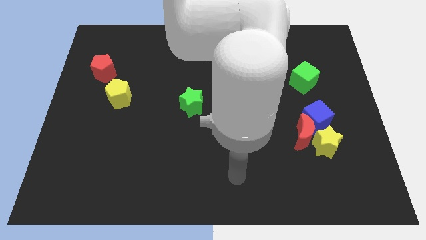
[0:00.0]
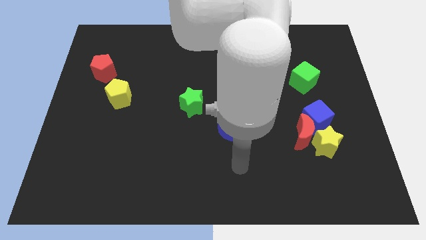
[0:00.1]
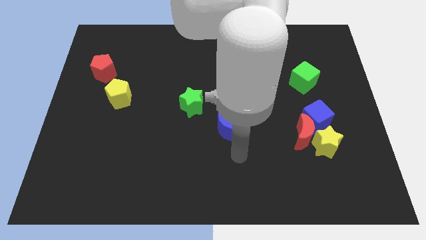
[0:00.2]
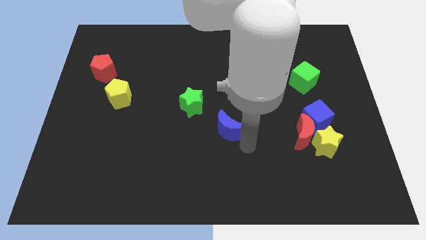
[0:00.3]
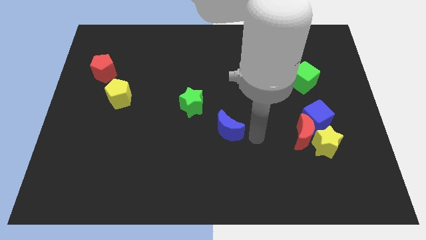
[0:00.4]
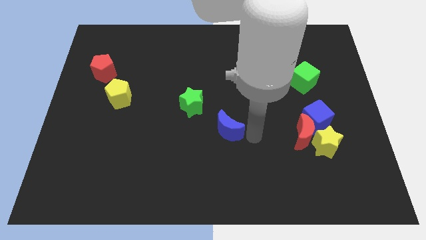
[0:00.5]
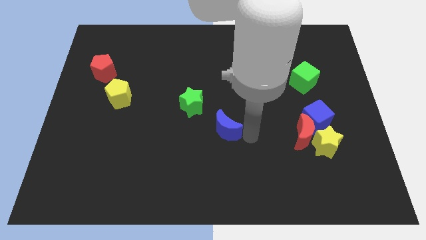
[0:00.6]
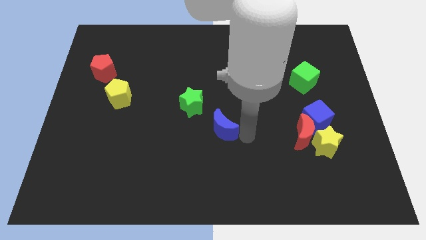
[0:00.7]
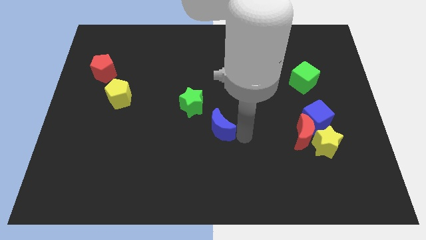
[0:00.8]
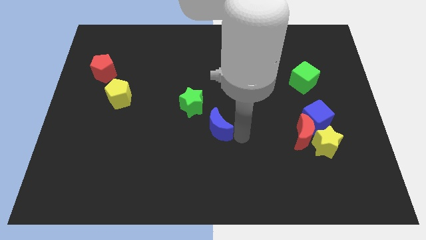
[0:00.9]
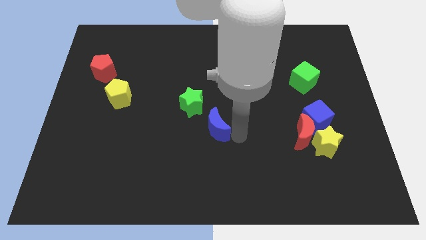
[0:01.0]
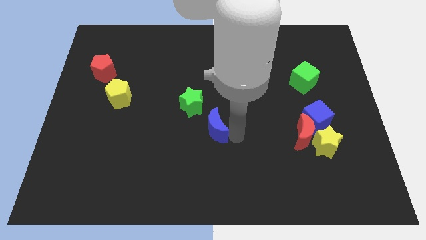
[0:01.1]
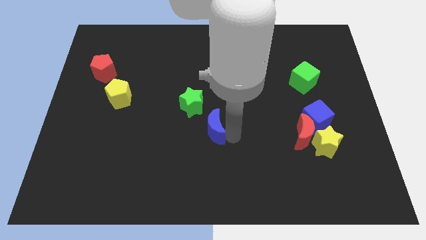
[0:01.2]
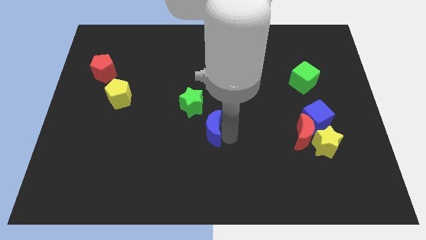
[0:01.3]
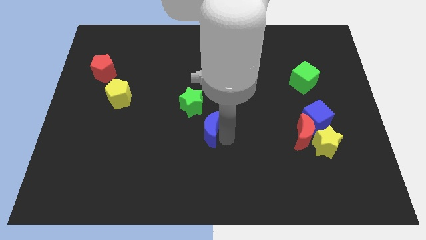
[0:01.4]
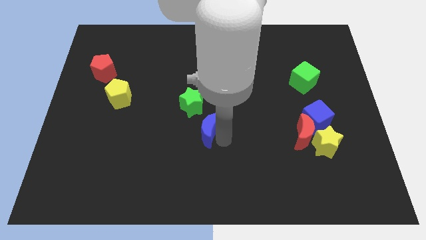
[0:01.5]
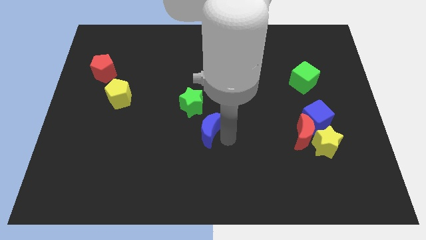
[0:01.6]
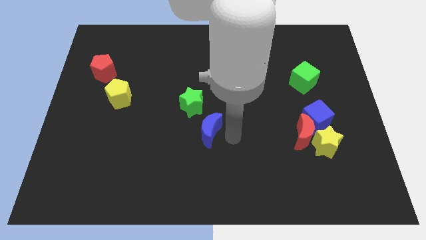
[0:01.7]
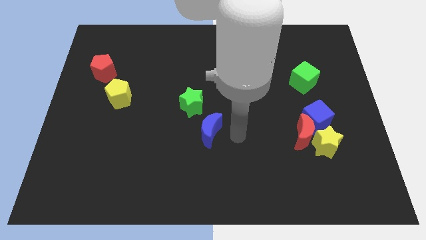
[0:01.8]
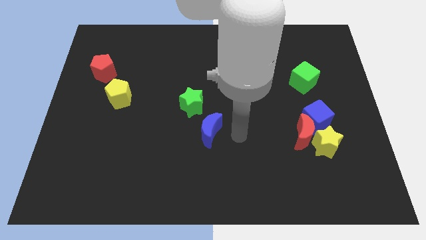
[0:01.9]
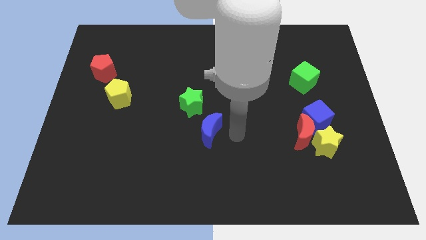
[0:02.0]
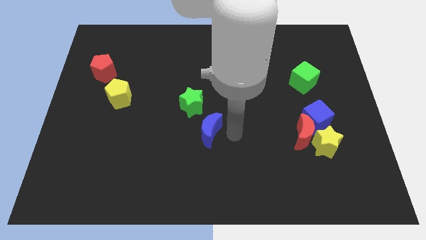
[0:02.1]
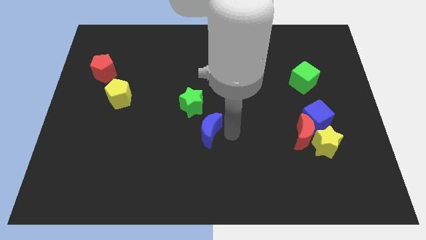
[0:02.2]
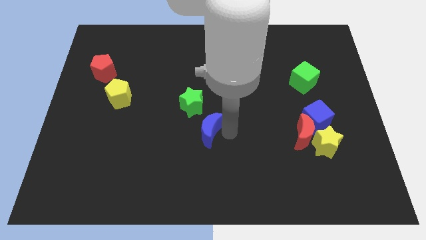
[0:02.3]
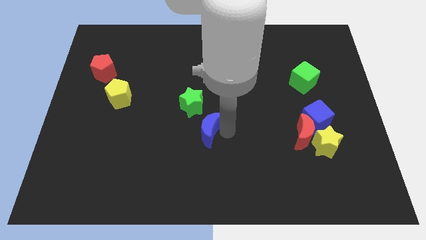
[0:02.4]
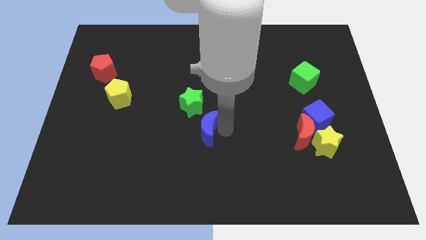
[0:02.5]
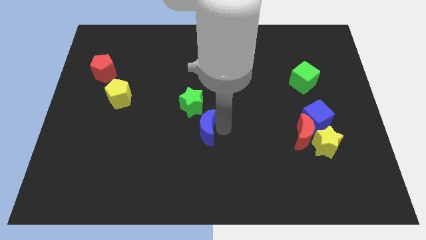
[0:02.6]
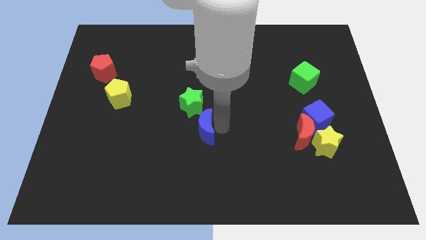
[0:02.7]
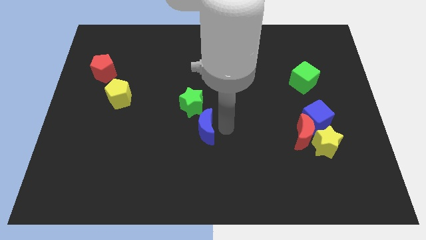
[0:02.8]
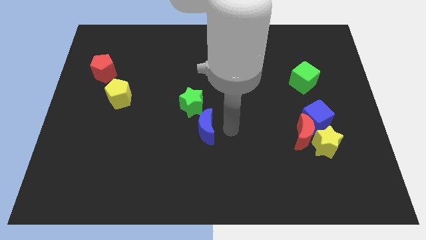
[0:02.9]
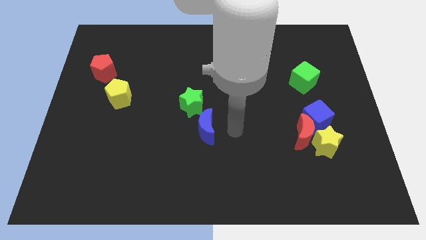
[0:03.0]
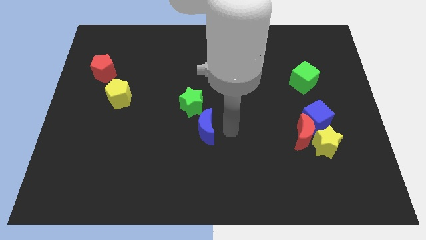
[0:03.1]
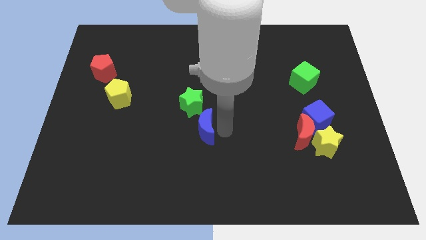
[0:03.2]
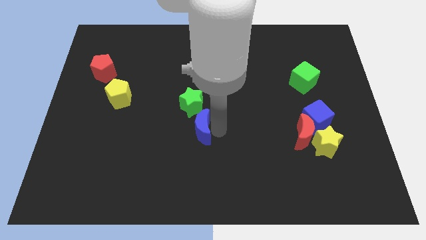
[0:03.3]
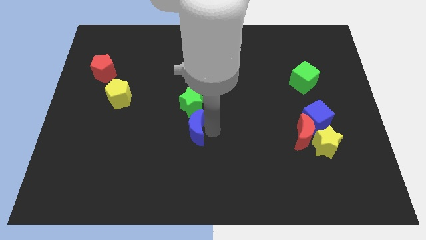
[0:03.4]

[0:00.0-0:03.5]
push the blue moon to the left a little

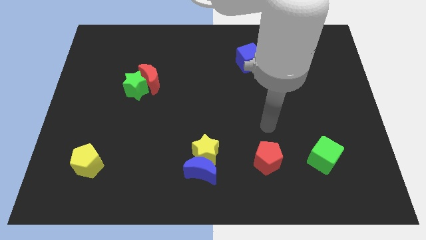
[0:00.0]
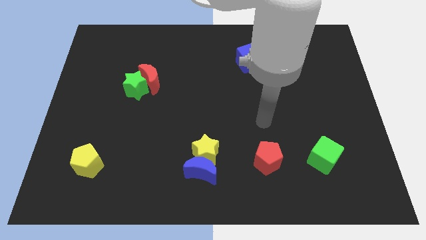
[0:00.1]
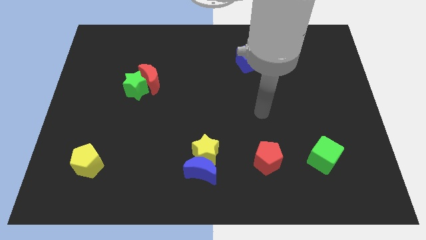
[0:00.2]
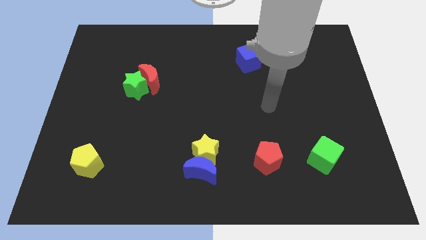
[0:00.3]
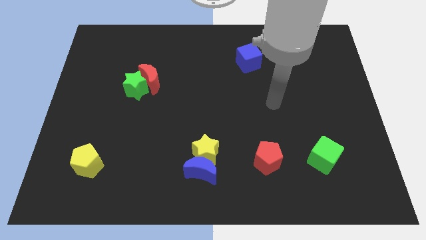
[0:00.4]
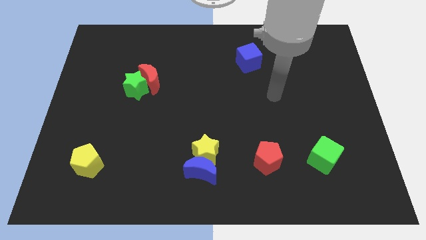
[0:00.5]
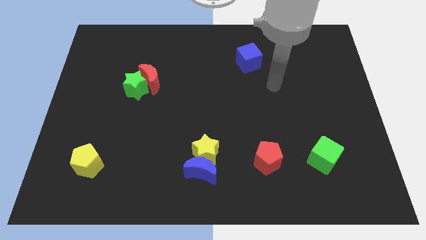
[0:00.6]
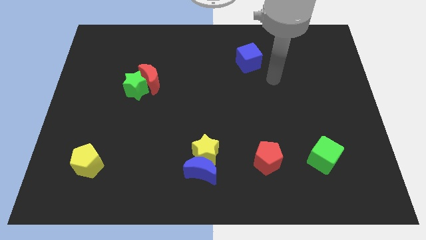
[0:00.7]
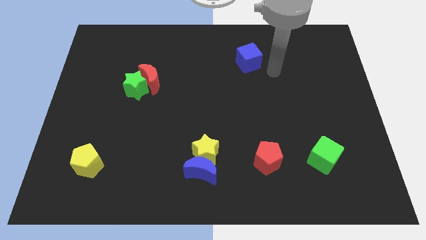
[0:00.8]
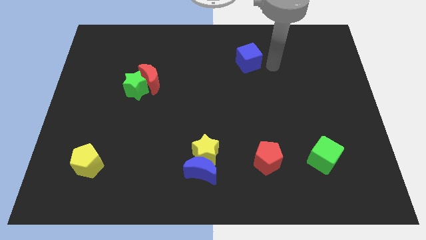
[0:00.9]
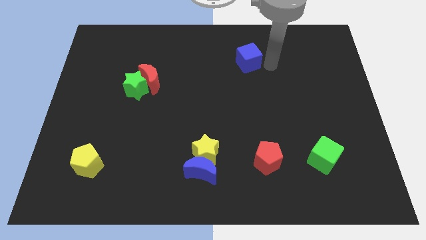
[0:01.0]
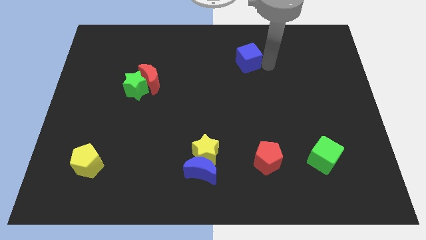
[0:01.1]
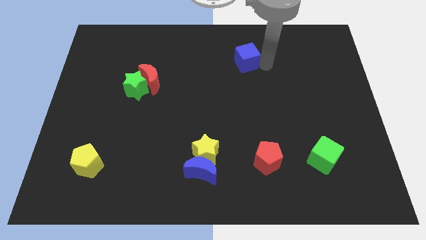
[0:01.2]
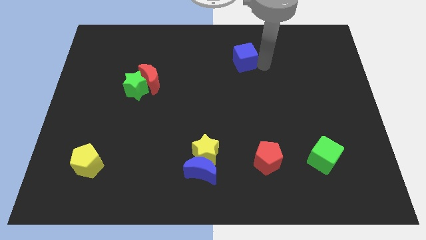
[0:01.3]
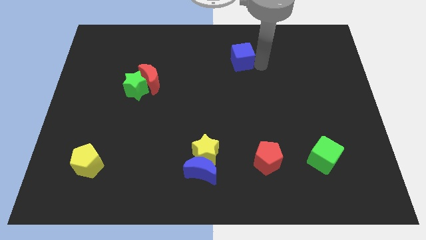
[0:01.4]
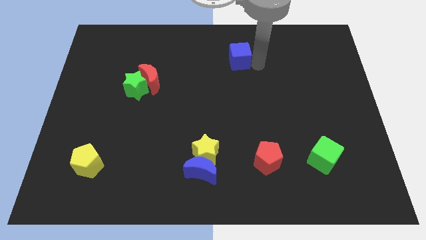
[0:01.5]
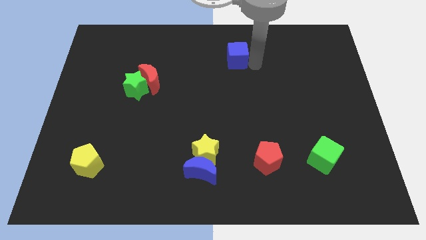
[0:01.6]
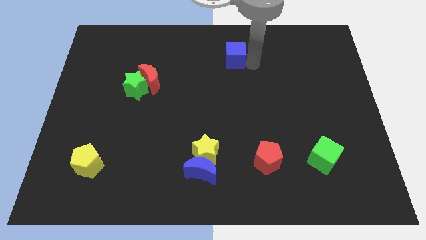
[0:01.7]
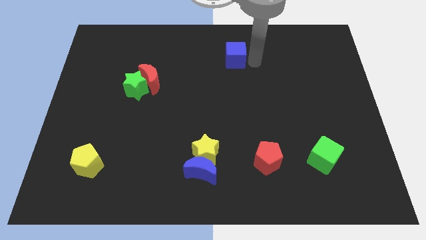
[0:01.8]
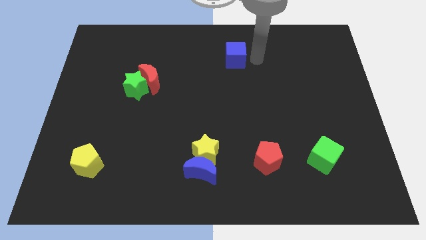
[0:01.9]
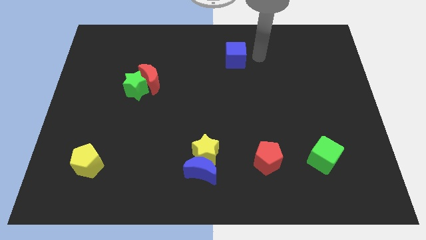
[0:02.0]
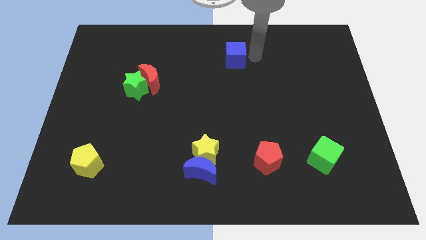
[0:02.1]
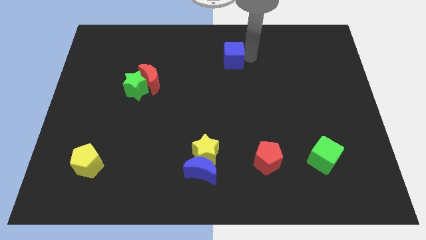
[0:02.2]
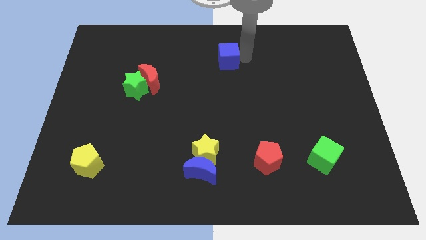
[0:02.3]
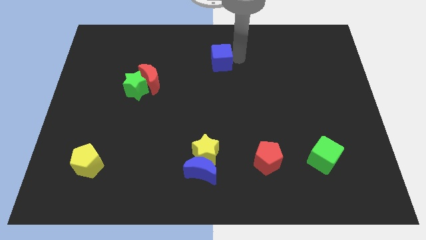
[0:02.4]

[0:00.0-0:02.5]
slide the blue cube to the left somewhat

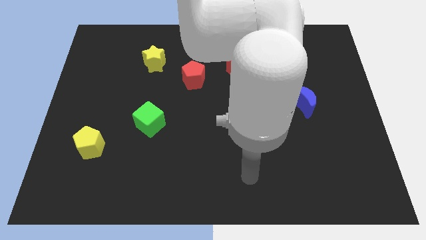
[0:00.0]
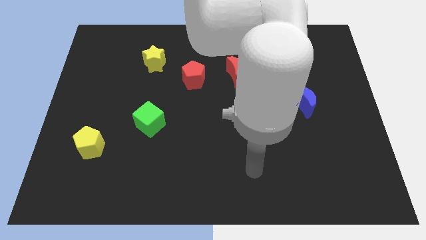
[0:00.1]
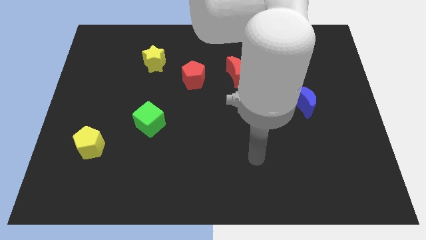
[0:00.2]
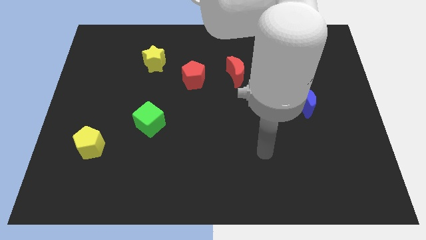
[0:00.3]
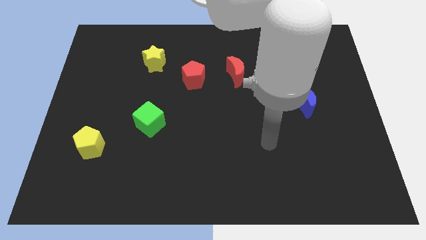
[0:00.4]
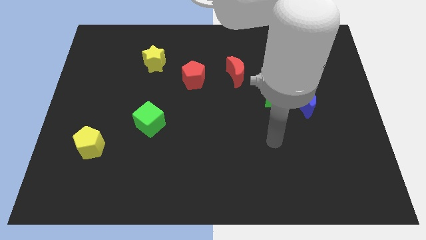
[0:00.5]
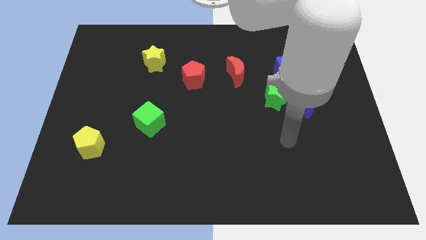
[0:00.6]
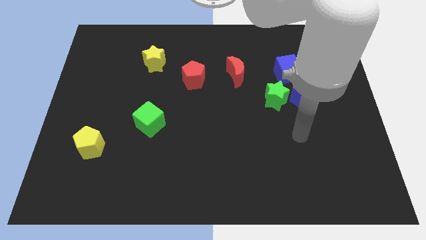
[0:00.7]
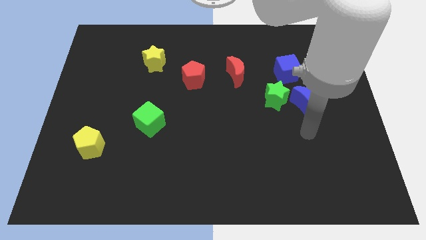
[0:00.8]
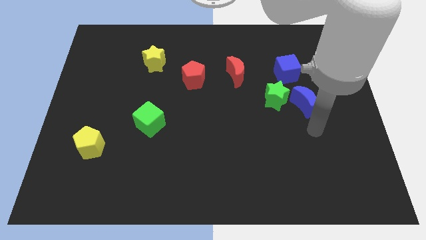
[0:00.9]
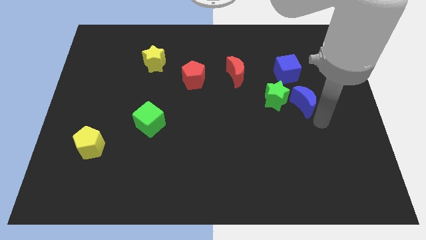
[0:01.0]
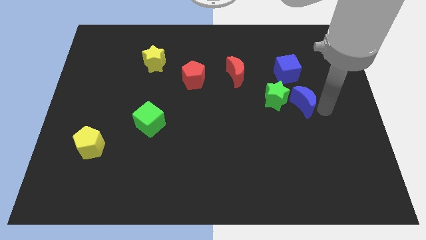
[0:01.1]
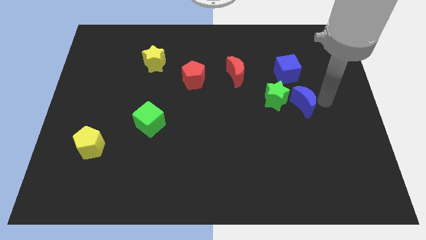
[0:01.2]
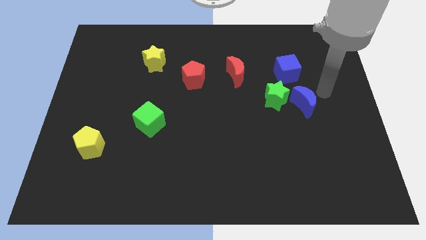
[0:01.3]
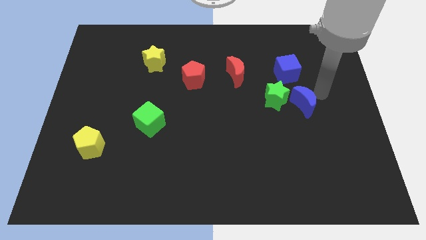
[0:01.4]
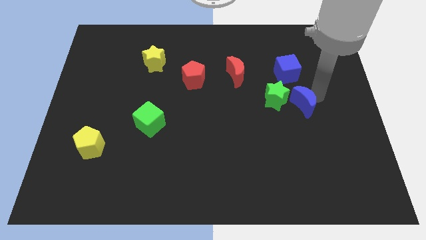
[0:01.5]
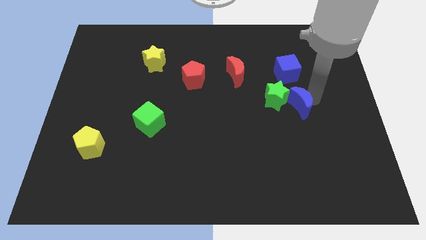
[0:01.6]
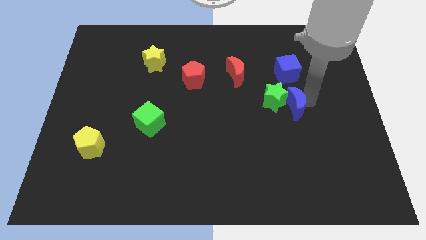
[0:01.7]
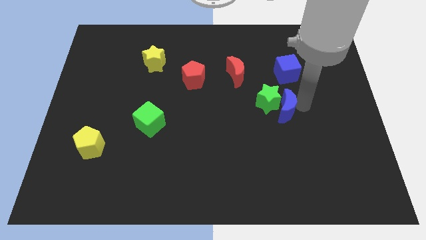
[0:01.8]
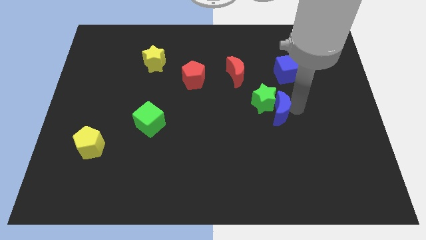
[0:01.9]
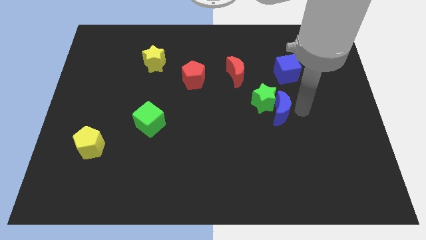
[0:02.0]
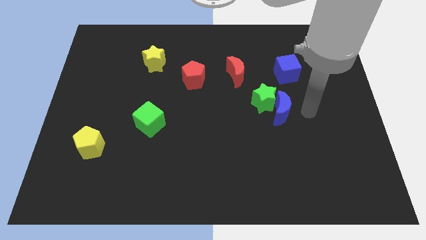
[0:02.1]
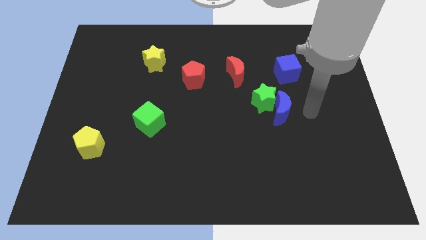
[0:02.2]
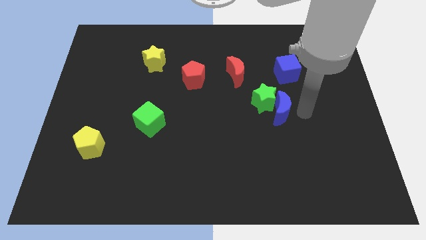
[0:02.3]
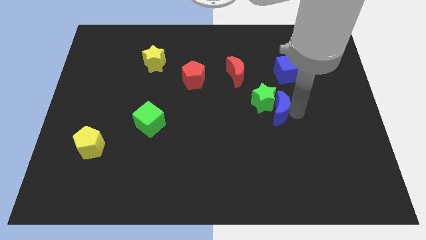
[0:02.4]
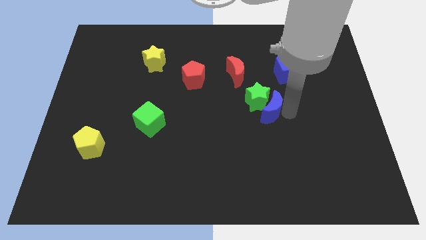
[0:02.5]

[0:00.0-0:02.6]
slightly push the blue moon left
